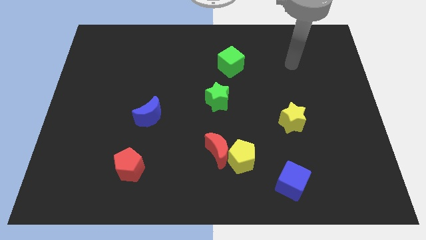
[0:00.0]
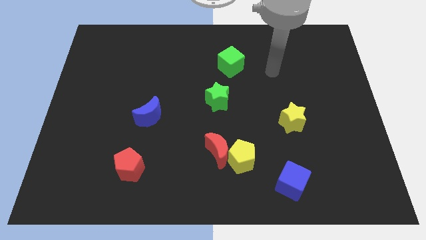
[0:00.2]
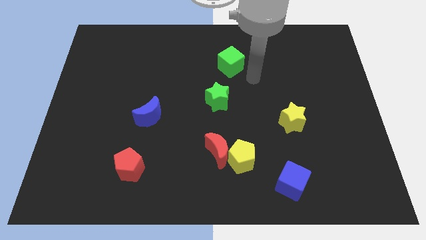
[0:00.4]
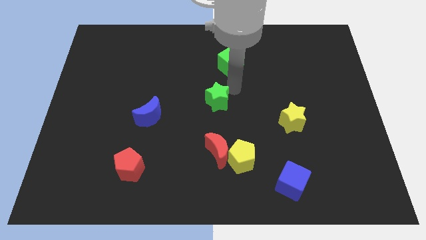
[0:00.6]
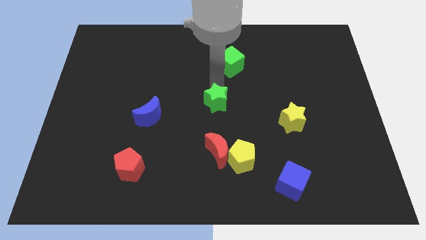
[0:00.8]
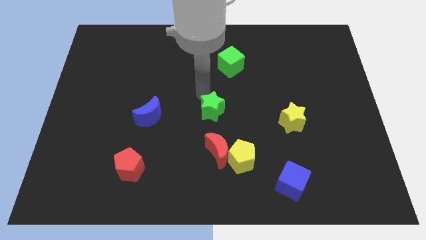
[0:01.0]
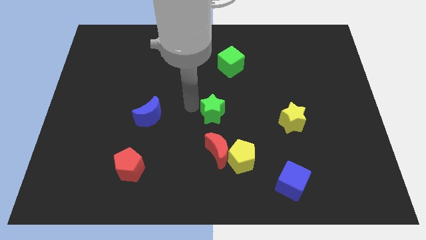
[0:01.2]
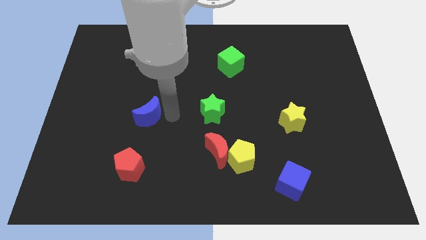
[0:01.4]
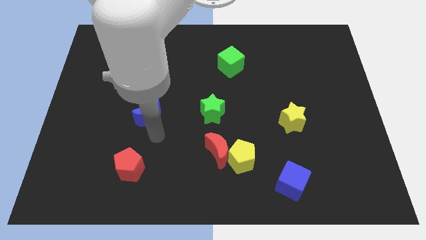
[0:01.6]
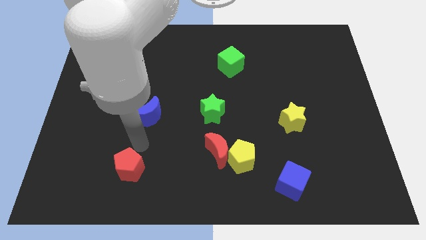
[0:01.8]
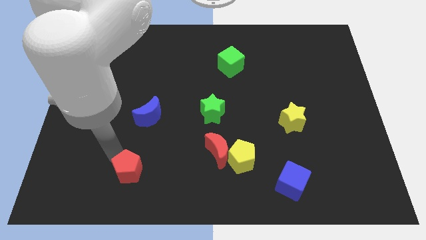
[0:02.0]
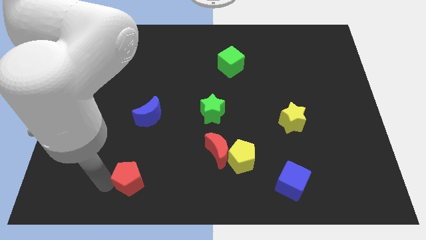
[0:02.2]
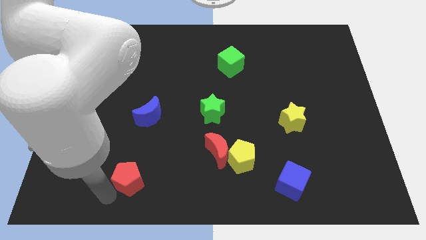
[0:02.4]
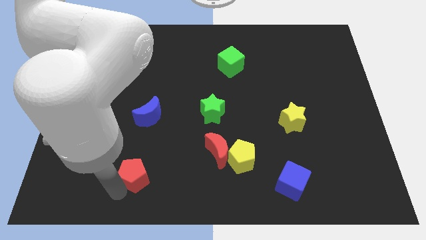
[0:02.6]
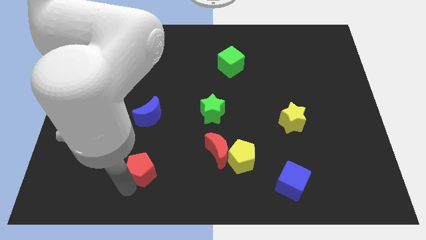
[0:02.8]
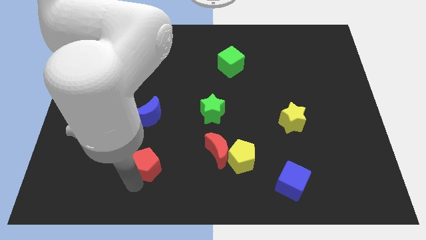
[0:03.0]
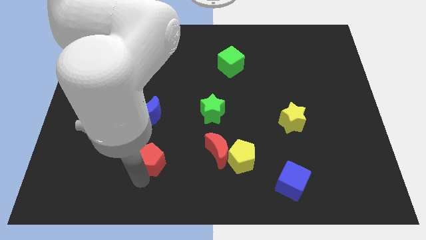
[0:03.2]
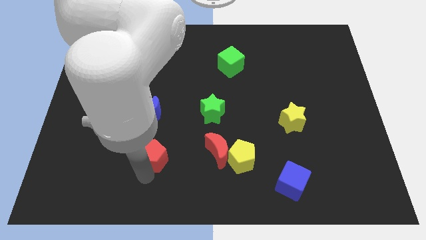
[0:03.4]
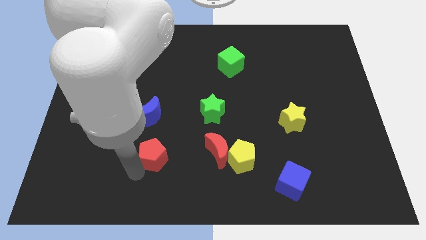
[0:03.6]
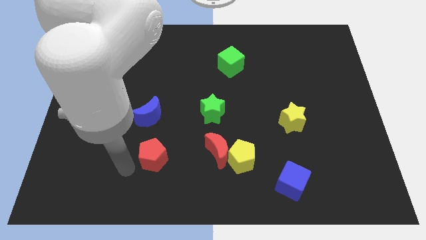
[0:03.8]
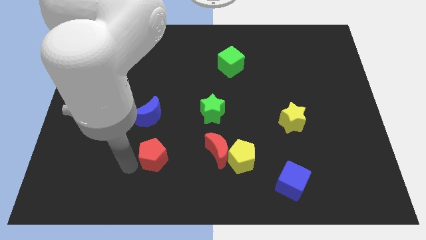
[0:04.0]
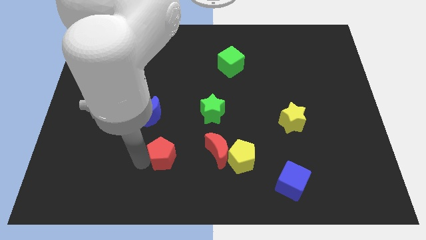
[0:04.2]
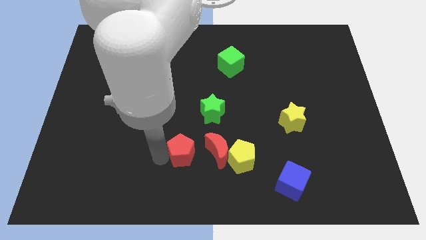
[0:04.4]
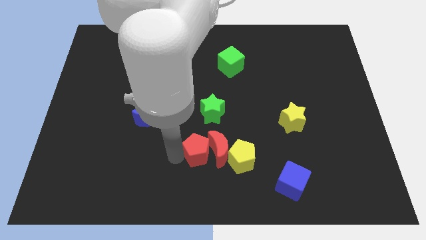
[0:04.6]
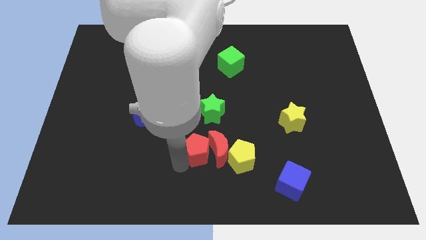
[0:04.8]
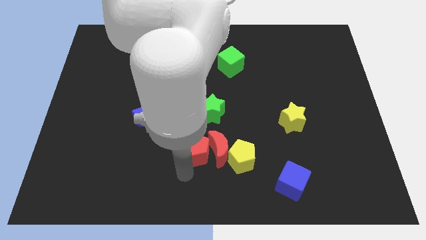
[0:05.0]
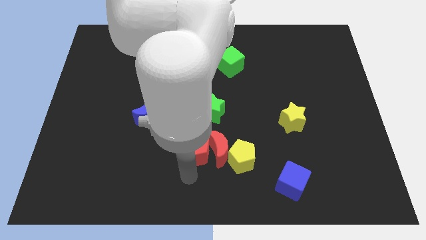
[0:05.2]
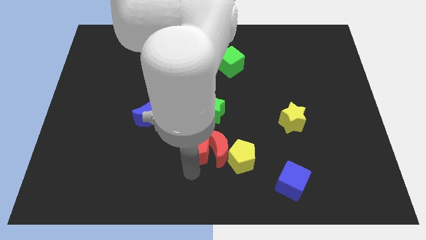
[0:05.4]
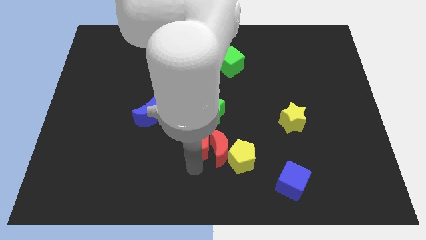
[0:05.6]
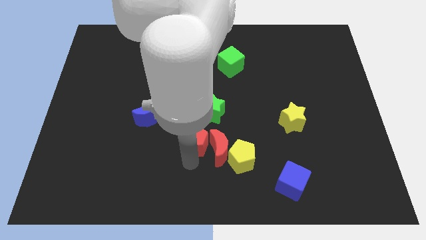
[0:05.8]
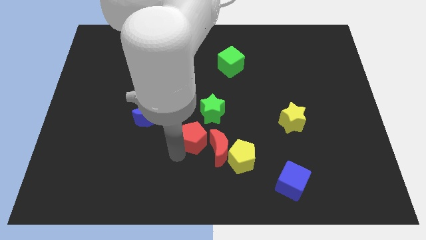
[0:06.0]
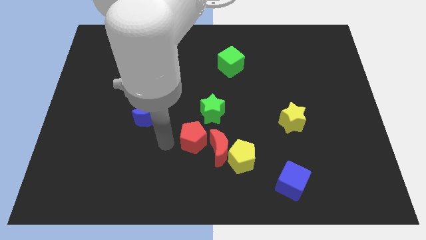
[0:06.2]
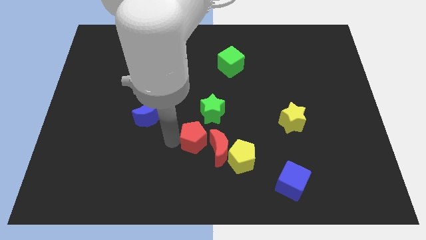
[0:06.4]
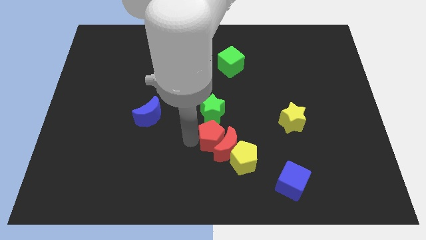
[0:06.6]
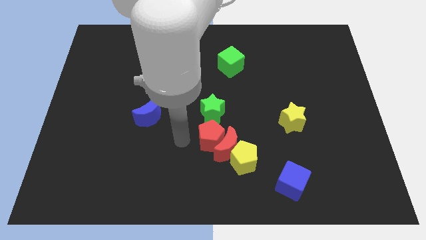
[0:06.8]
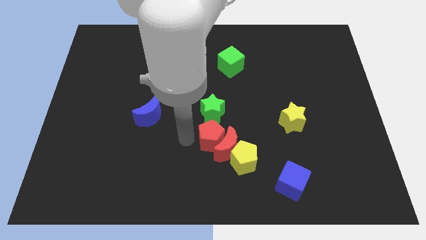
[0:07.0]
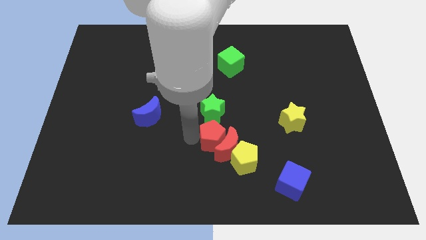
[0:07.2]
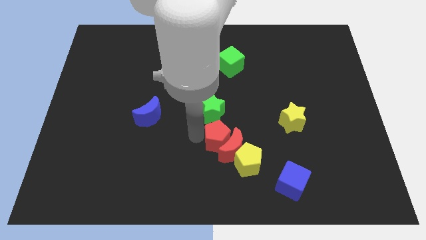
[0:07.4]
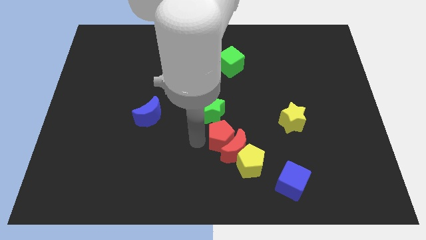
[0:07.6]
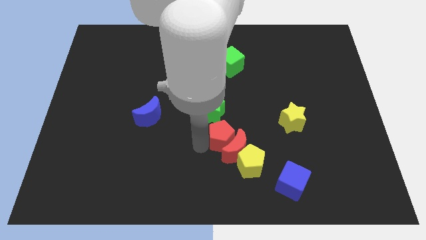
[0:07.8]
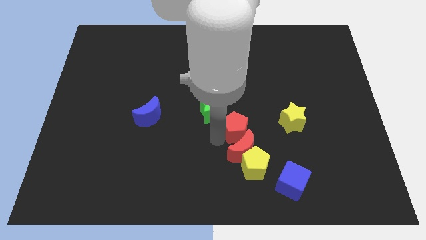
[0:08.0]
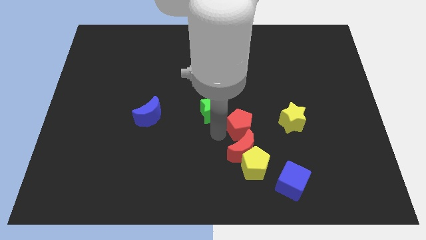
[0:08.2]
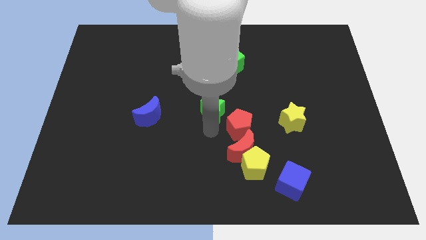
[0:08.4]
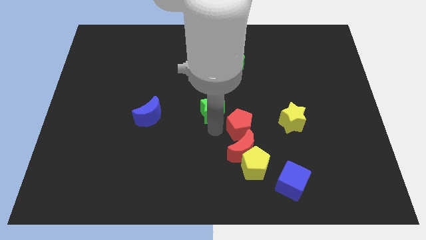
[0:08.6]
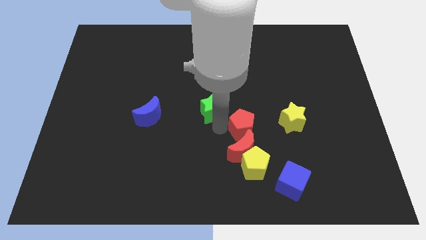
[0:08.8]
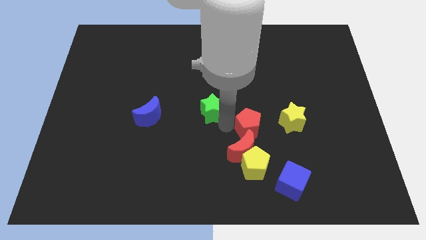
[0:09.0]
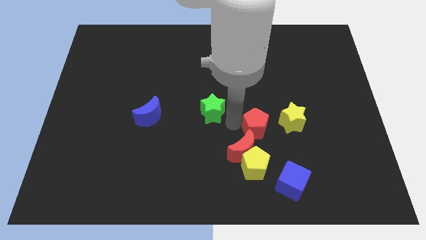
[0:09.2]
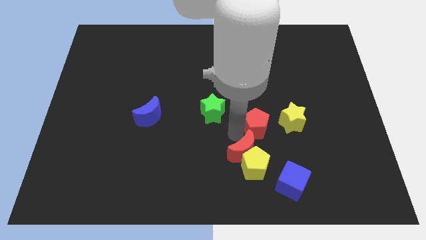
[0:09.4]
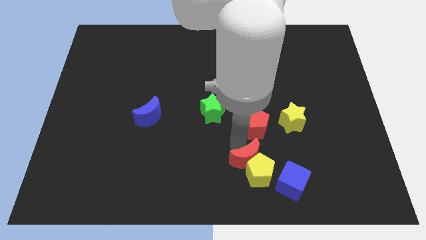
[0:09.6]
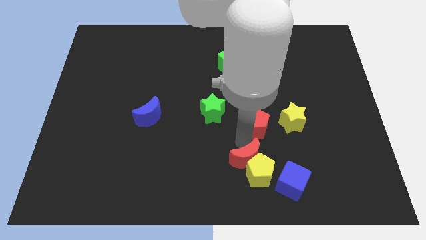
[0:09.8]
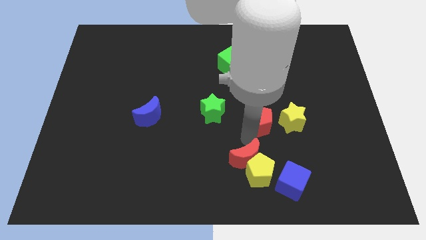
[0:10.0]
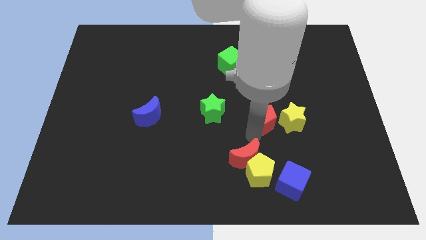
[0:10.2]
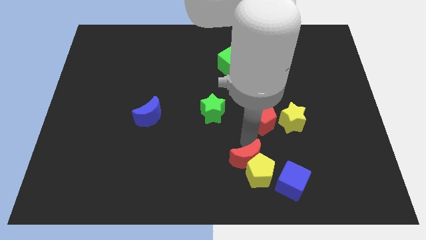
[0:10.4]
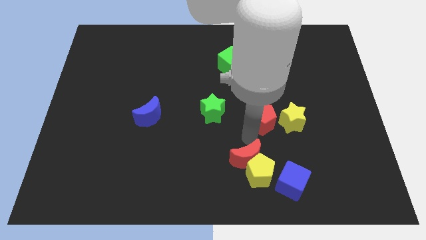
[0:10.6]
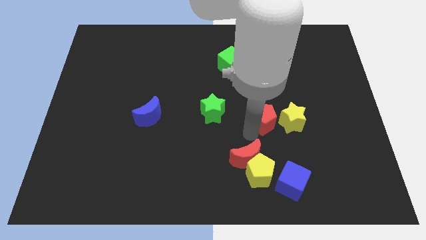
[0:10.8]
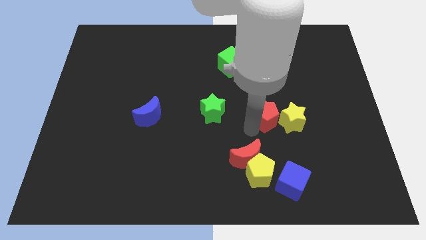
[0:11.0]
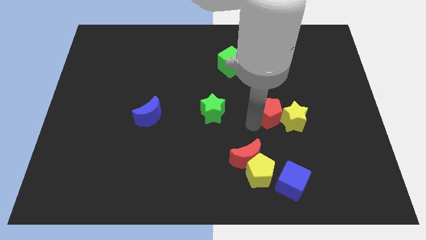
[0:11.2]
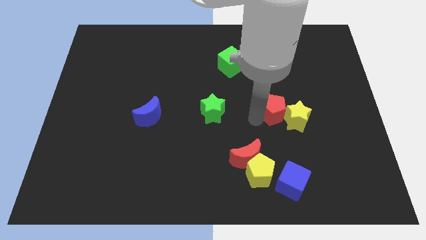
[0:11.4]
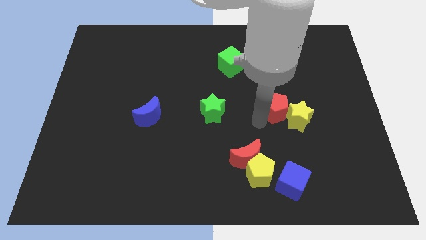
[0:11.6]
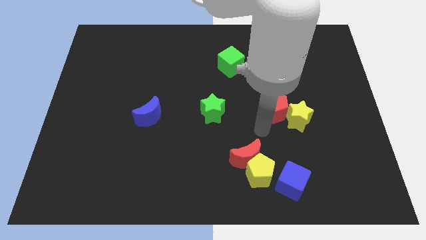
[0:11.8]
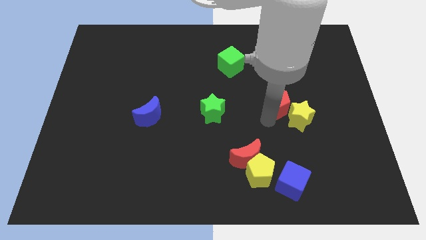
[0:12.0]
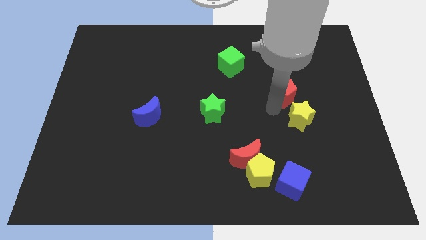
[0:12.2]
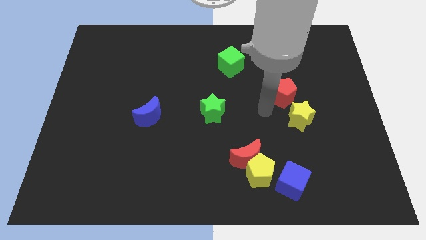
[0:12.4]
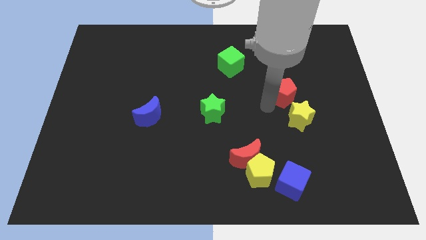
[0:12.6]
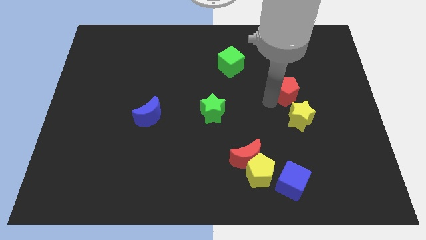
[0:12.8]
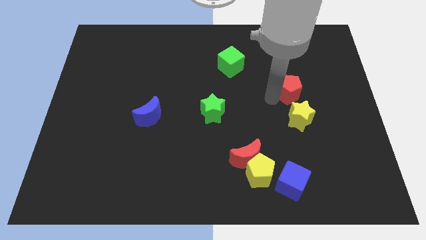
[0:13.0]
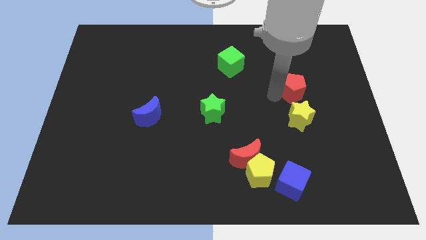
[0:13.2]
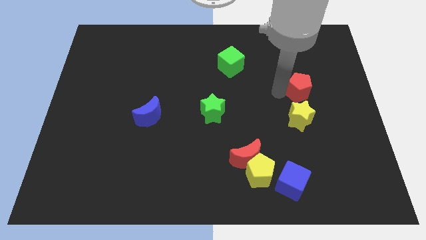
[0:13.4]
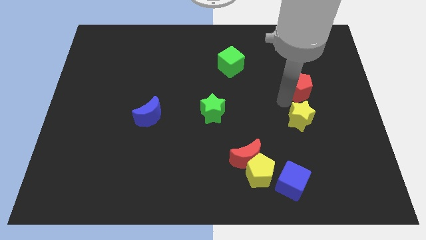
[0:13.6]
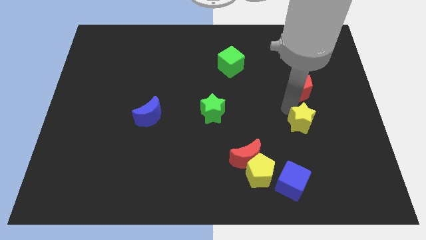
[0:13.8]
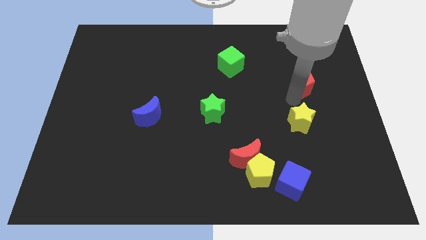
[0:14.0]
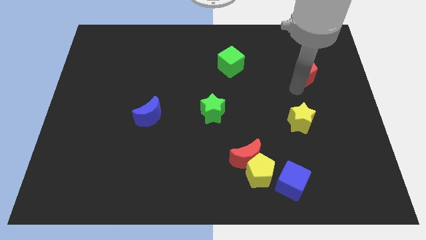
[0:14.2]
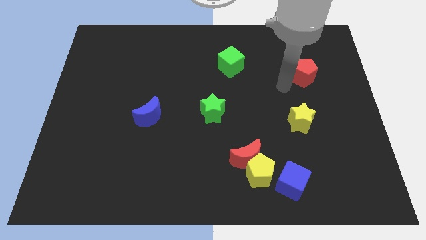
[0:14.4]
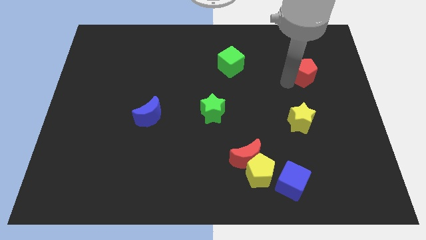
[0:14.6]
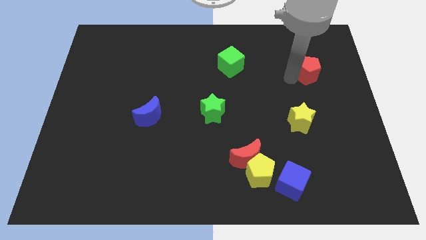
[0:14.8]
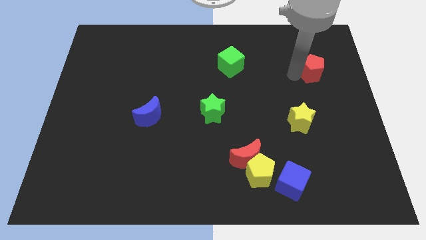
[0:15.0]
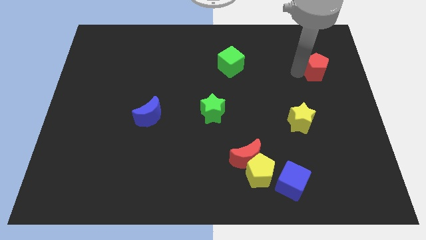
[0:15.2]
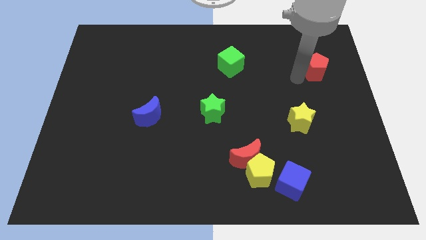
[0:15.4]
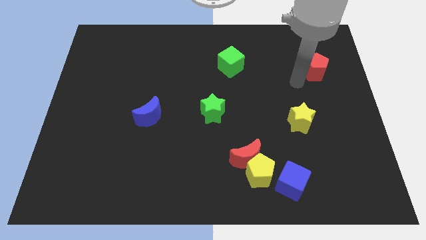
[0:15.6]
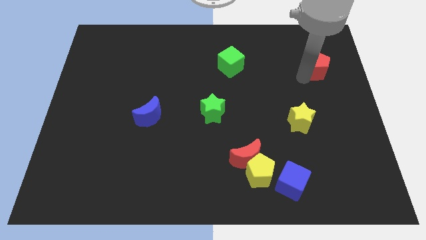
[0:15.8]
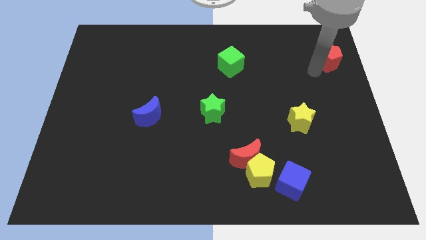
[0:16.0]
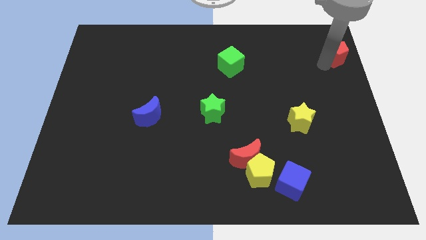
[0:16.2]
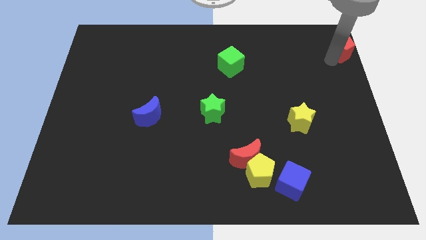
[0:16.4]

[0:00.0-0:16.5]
push the red pentagon to the top right
